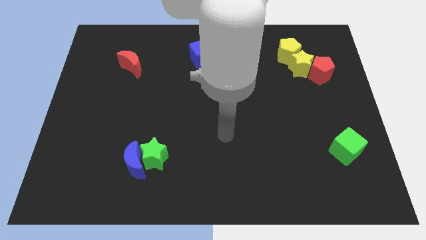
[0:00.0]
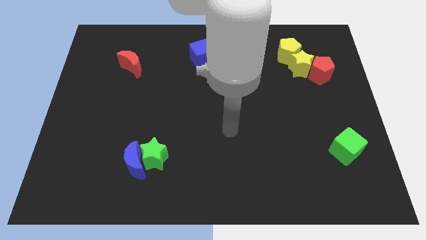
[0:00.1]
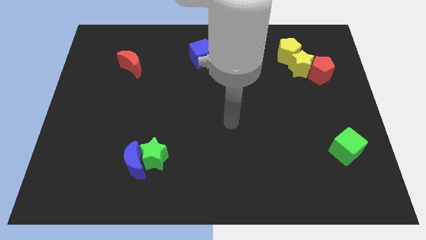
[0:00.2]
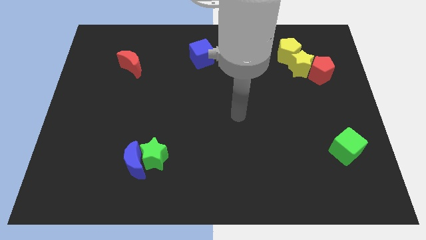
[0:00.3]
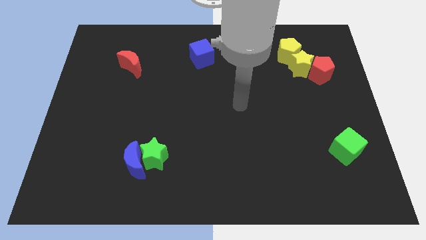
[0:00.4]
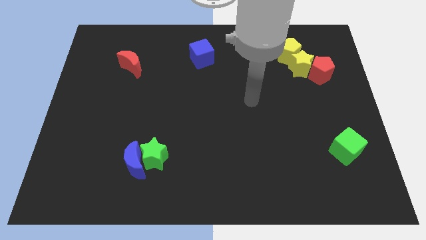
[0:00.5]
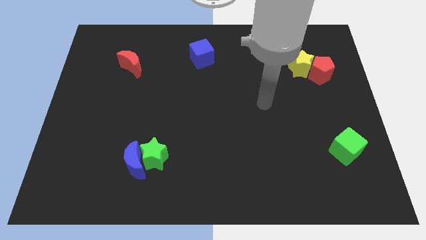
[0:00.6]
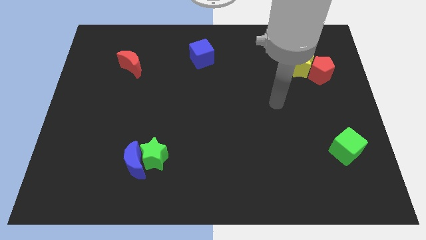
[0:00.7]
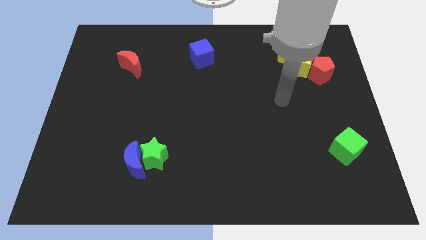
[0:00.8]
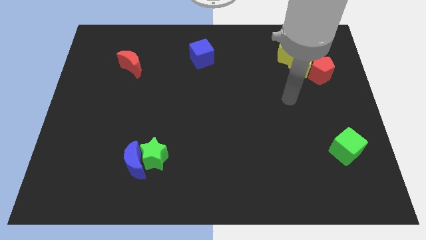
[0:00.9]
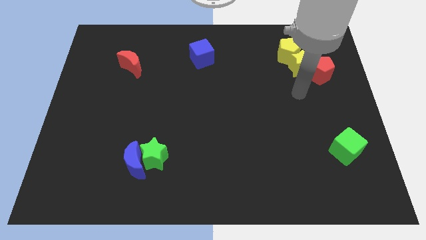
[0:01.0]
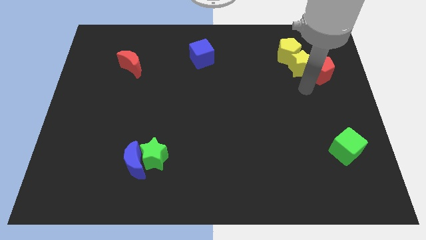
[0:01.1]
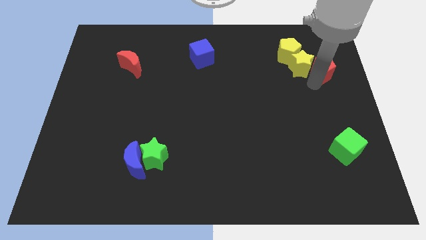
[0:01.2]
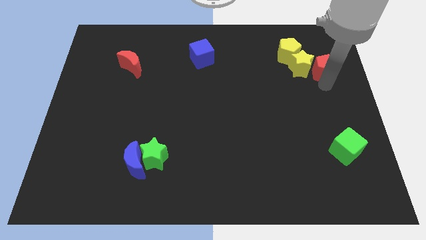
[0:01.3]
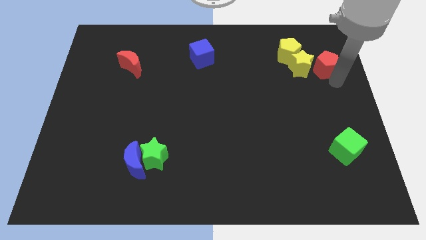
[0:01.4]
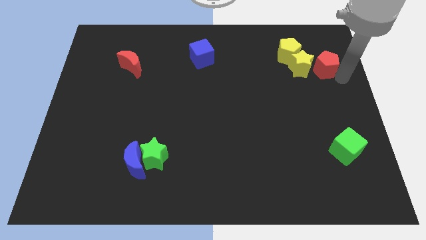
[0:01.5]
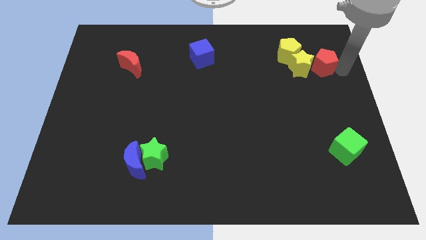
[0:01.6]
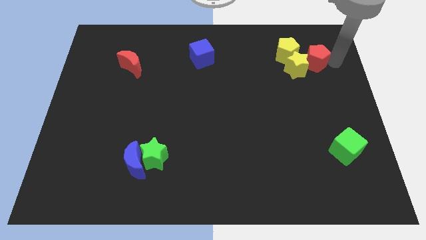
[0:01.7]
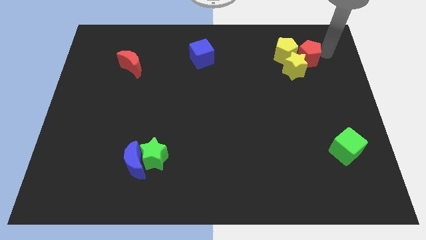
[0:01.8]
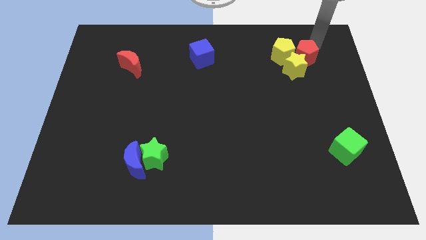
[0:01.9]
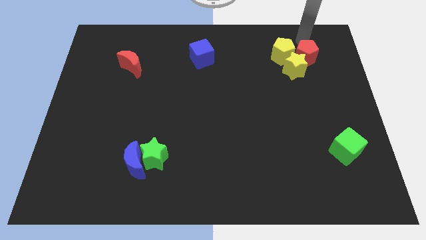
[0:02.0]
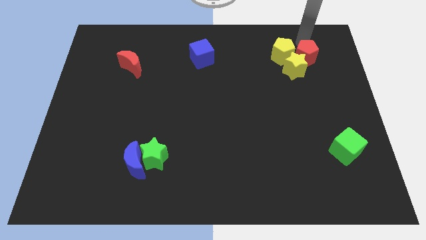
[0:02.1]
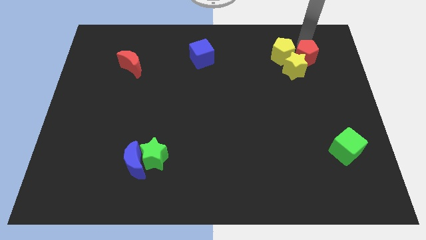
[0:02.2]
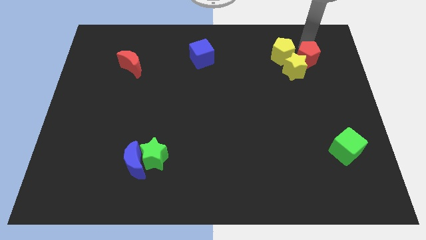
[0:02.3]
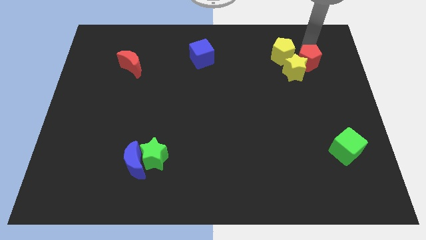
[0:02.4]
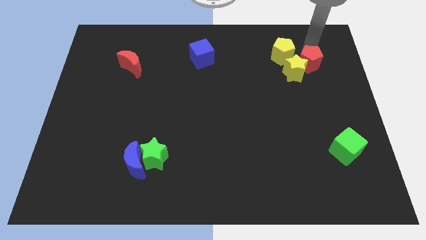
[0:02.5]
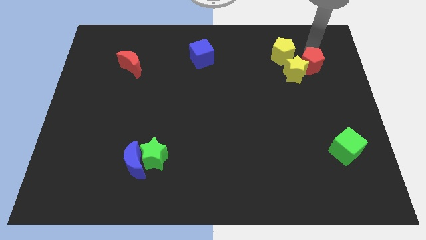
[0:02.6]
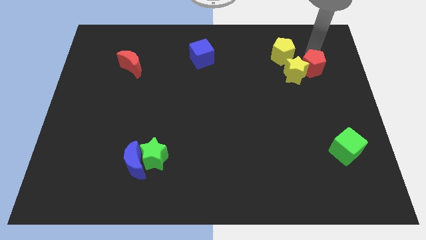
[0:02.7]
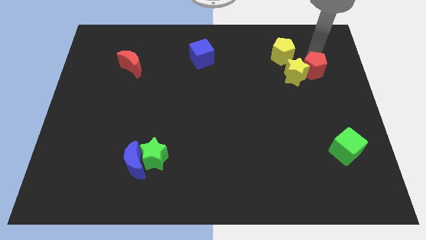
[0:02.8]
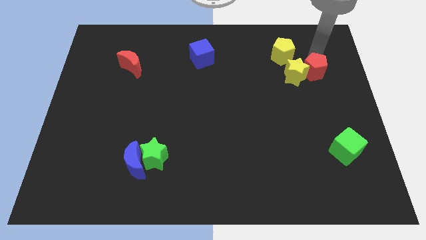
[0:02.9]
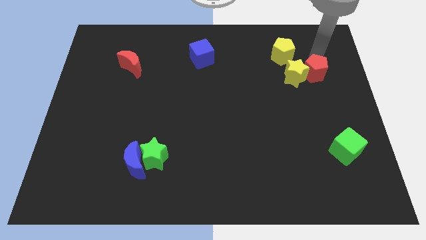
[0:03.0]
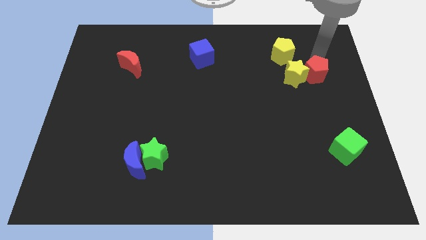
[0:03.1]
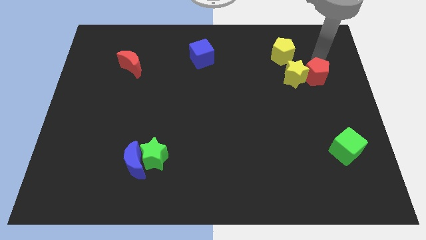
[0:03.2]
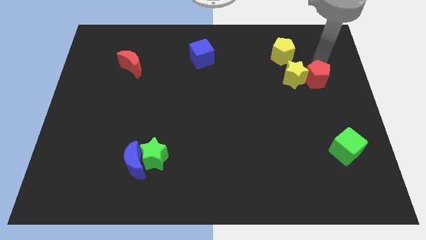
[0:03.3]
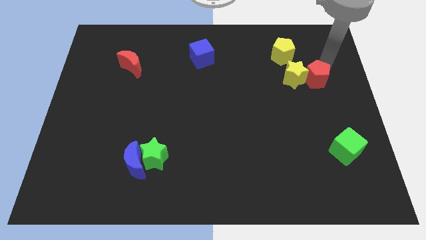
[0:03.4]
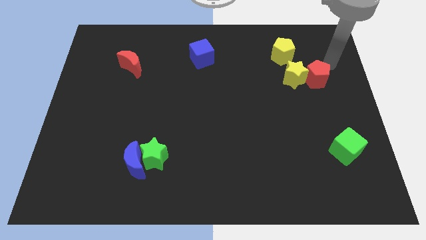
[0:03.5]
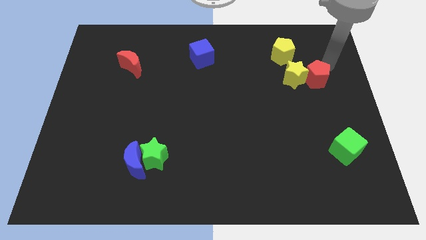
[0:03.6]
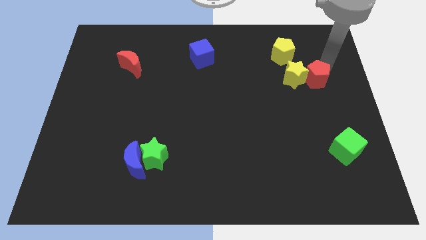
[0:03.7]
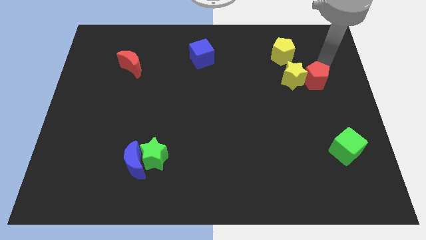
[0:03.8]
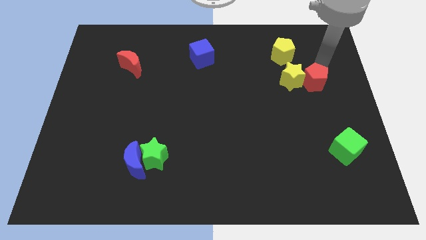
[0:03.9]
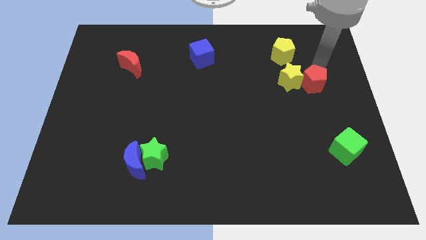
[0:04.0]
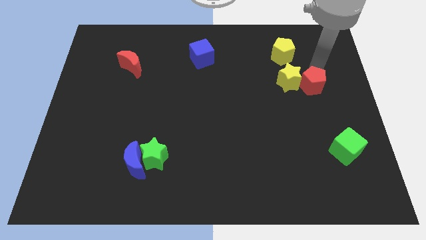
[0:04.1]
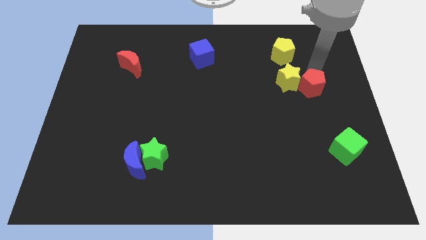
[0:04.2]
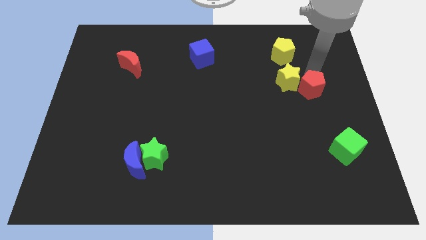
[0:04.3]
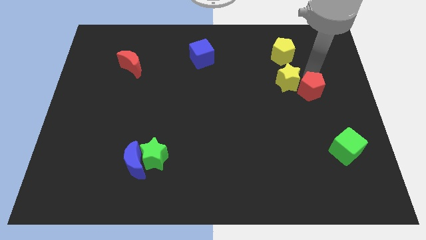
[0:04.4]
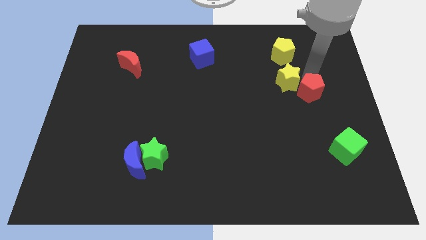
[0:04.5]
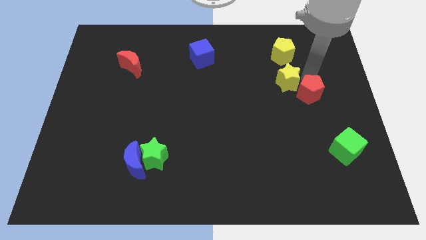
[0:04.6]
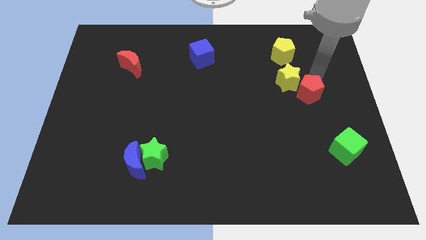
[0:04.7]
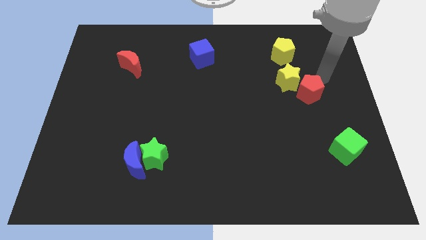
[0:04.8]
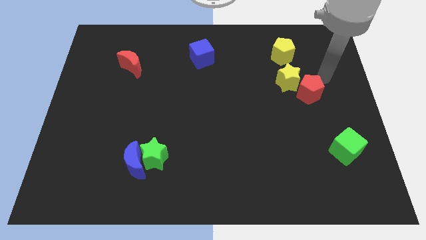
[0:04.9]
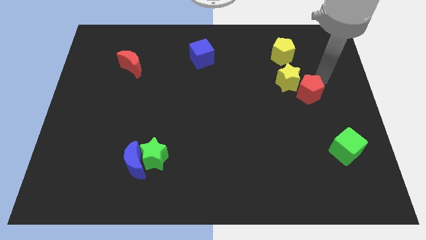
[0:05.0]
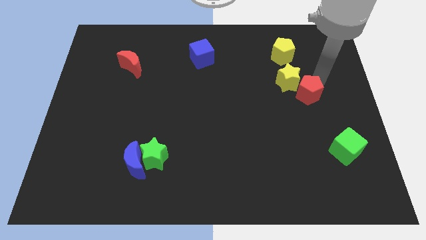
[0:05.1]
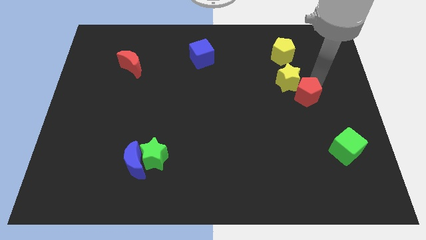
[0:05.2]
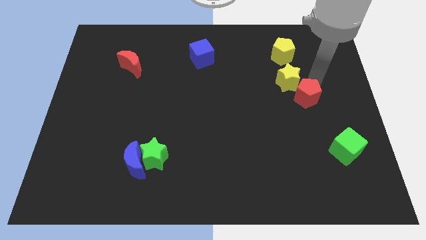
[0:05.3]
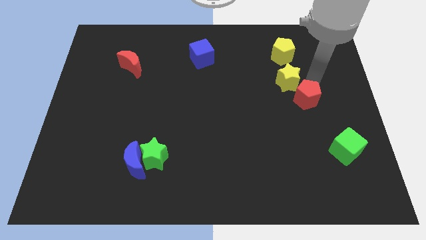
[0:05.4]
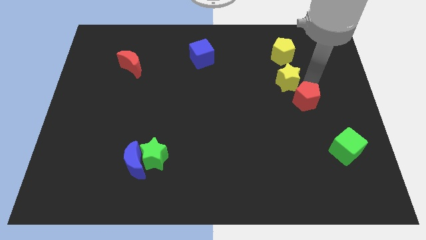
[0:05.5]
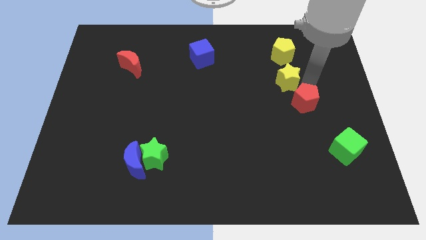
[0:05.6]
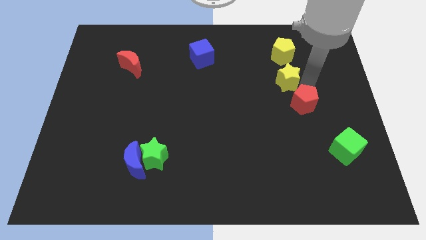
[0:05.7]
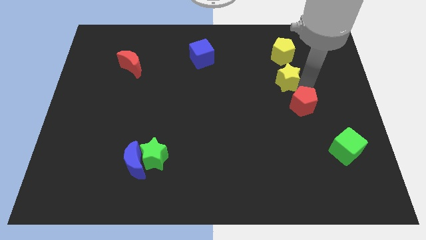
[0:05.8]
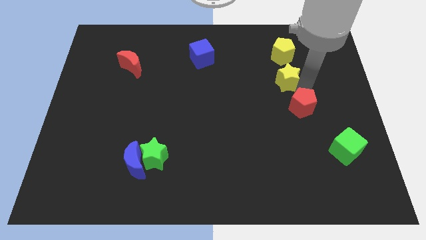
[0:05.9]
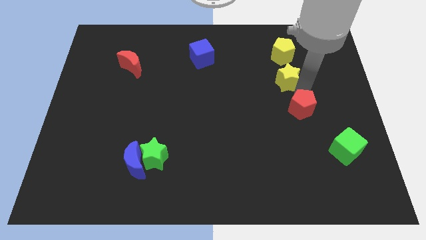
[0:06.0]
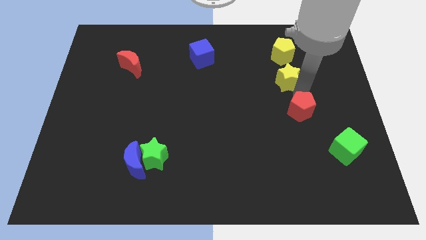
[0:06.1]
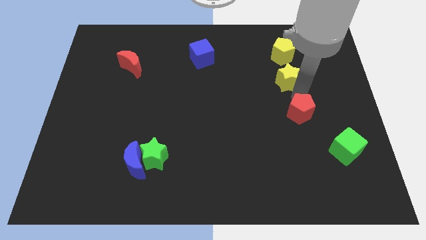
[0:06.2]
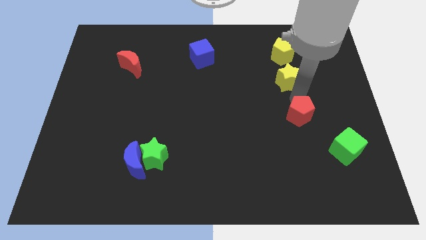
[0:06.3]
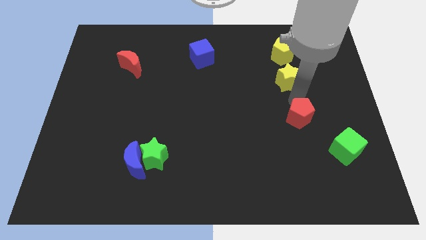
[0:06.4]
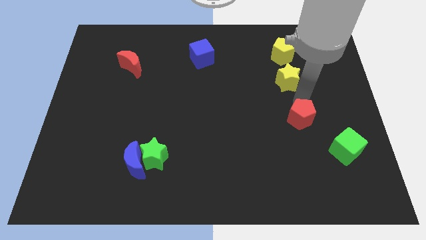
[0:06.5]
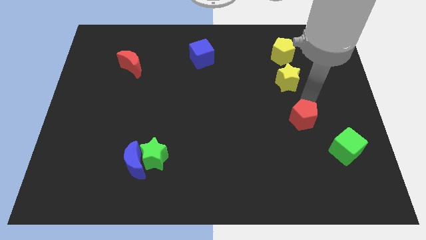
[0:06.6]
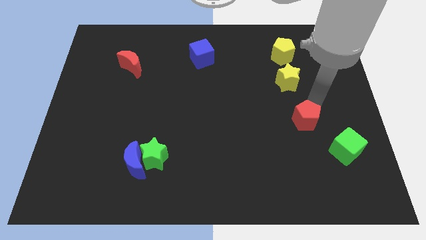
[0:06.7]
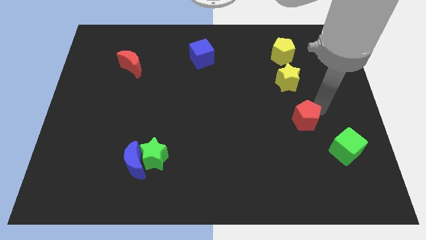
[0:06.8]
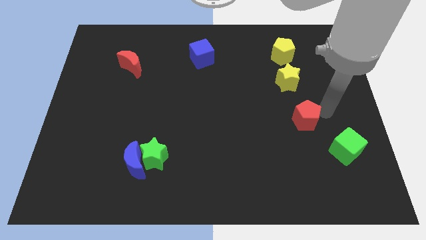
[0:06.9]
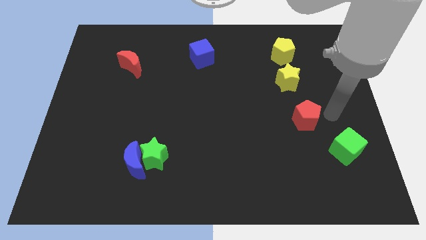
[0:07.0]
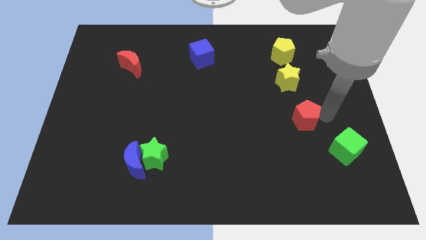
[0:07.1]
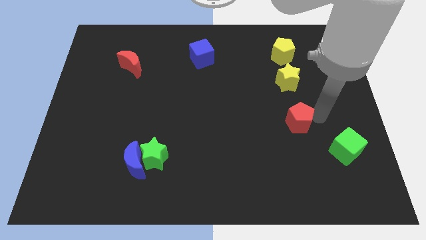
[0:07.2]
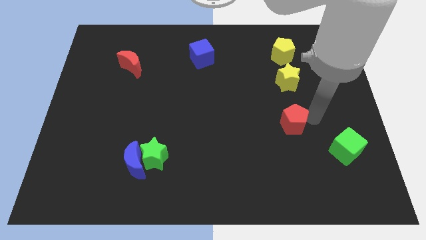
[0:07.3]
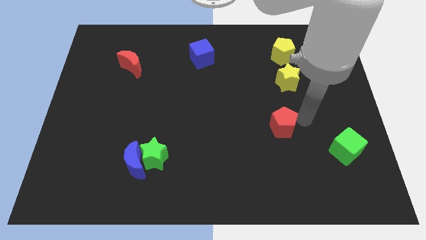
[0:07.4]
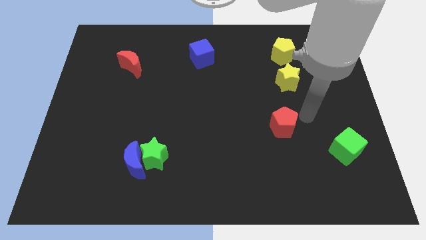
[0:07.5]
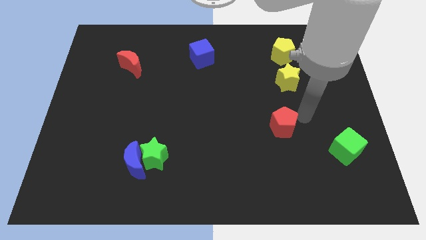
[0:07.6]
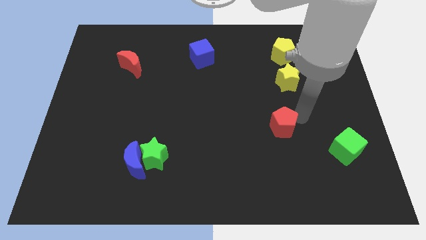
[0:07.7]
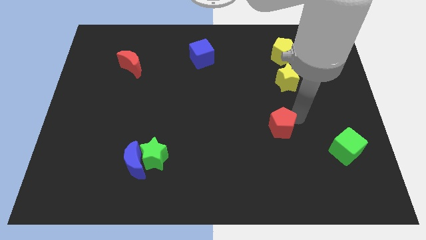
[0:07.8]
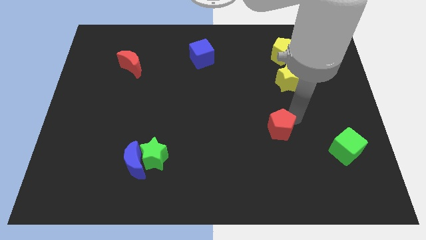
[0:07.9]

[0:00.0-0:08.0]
slide the red pentagon down and then to the left

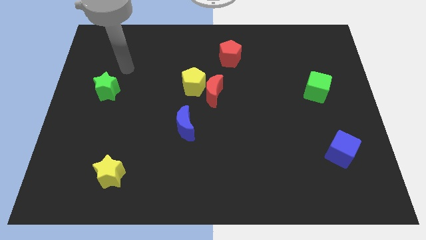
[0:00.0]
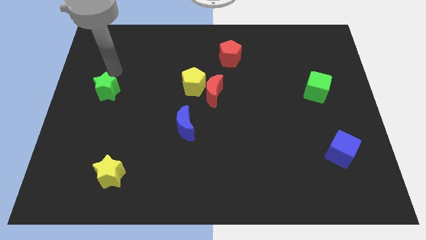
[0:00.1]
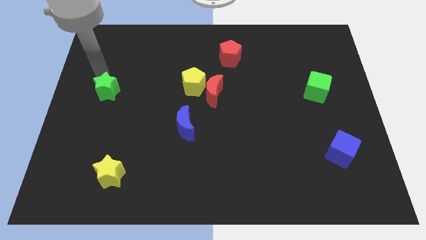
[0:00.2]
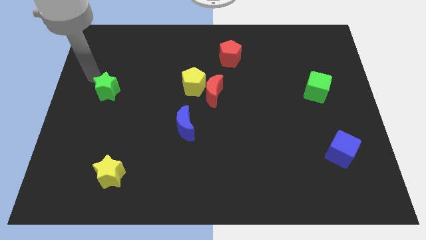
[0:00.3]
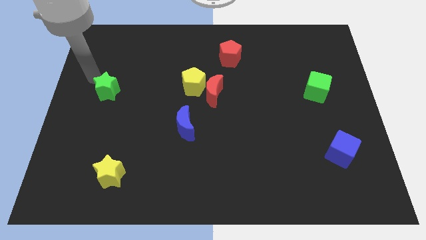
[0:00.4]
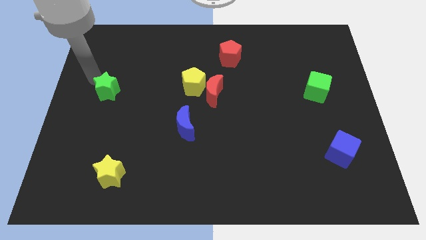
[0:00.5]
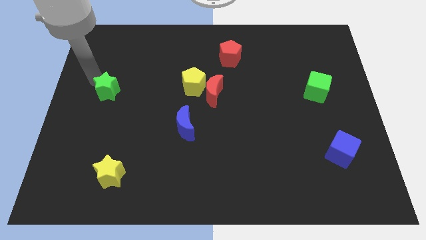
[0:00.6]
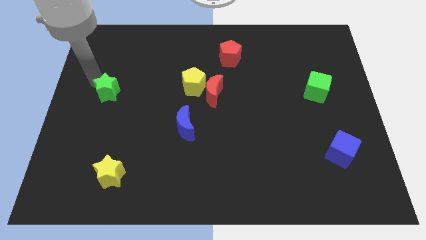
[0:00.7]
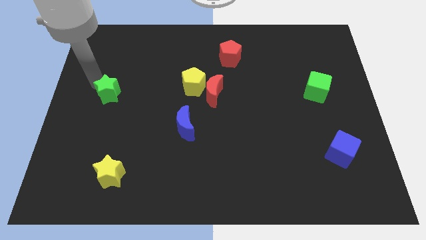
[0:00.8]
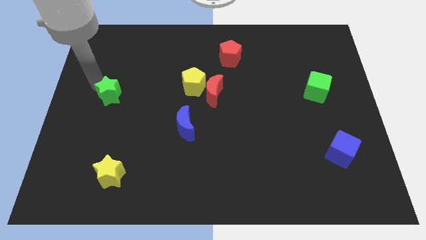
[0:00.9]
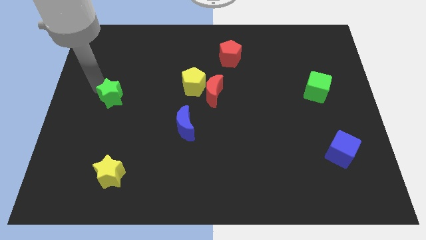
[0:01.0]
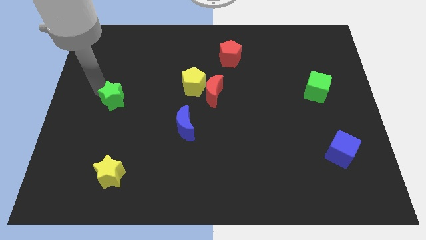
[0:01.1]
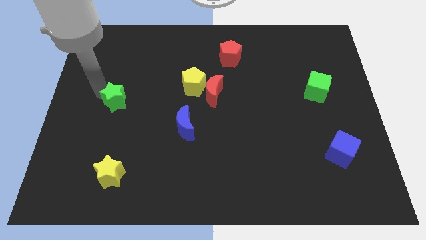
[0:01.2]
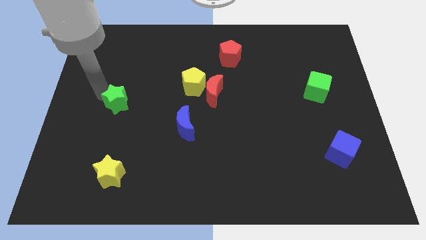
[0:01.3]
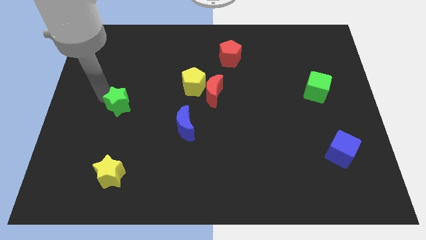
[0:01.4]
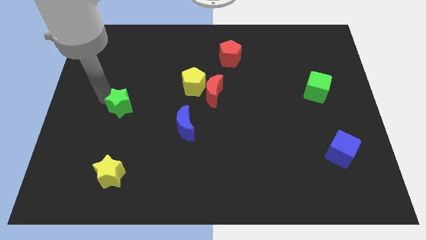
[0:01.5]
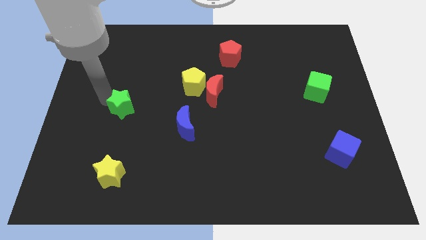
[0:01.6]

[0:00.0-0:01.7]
move the green star slightly downwards and then right
